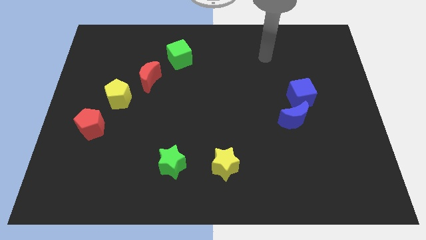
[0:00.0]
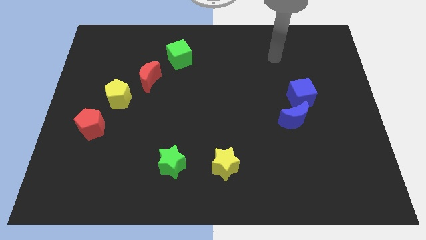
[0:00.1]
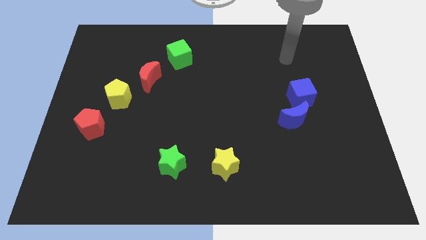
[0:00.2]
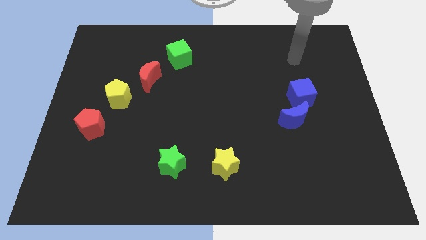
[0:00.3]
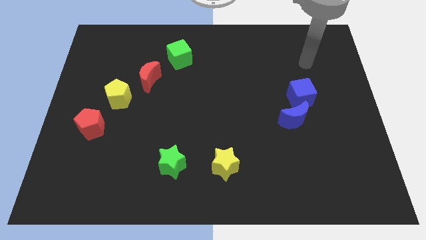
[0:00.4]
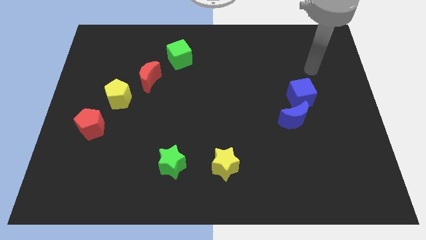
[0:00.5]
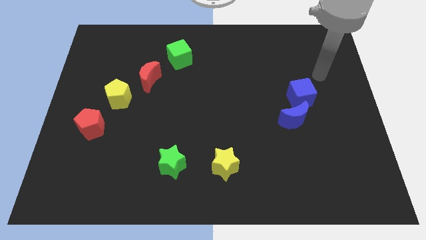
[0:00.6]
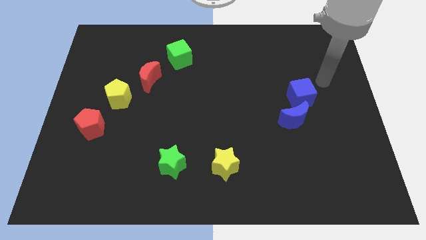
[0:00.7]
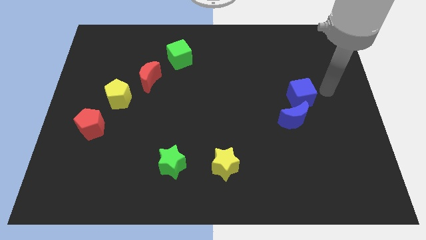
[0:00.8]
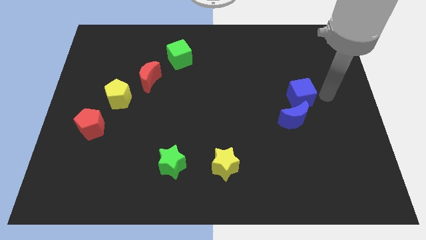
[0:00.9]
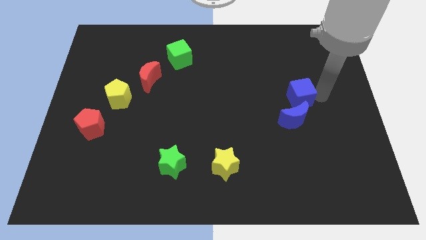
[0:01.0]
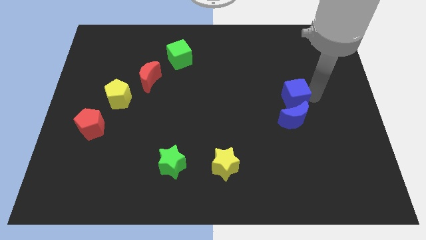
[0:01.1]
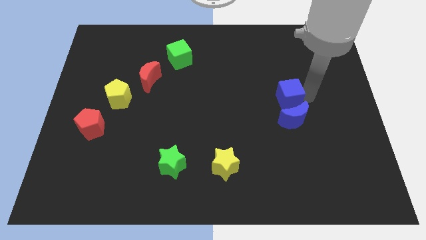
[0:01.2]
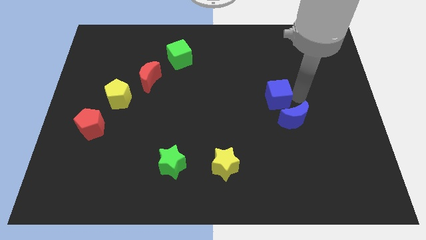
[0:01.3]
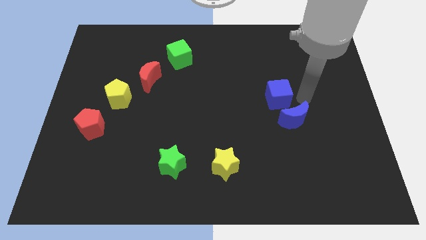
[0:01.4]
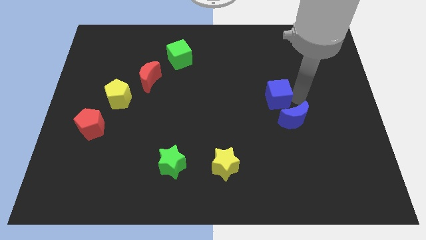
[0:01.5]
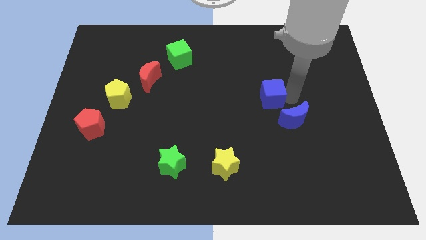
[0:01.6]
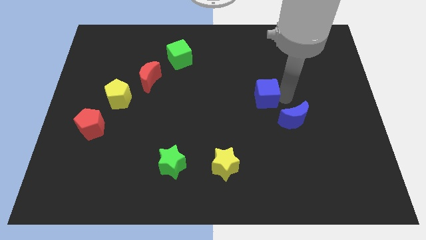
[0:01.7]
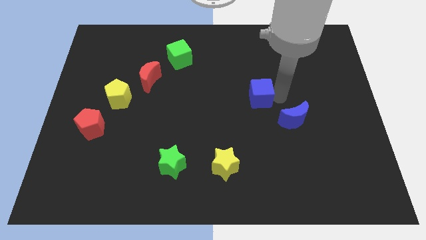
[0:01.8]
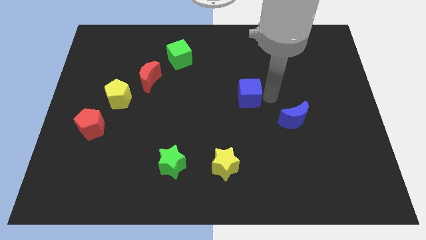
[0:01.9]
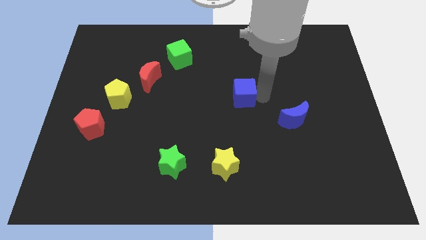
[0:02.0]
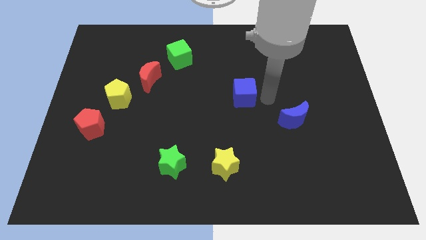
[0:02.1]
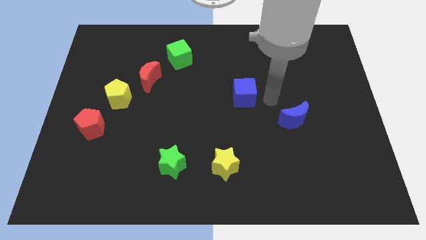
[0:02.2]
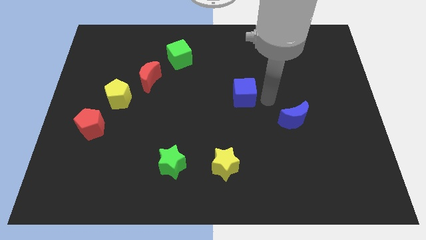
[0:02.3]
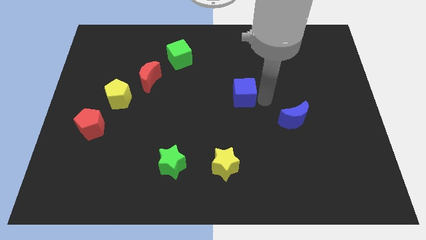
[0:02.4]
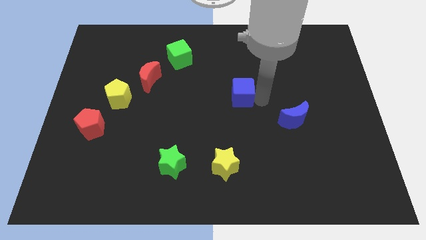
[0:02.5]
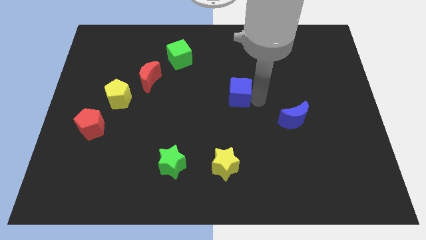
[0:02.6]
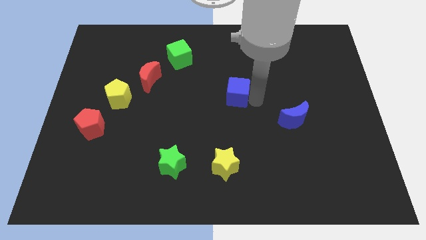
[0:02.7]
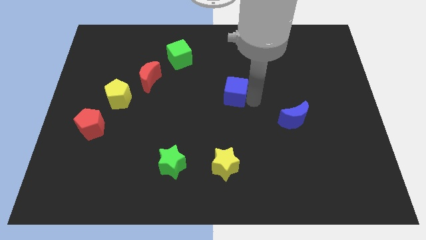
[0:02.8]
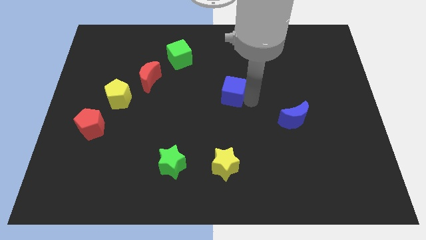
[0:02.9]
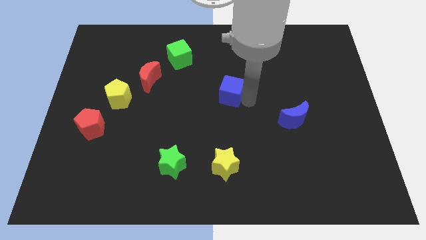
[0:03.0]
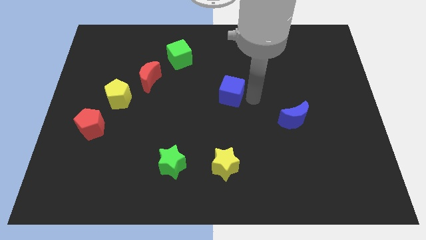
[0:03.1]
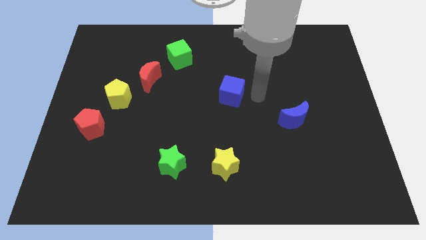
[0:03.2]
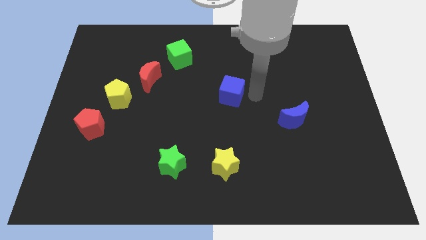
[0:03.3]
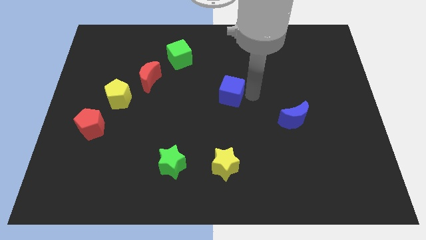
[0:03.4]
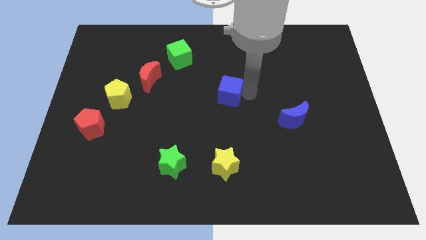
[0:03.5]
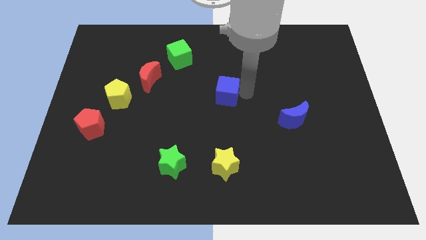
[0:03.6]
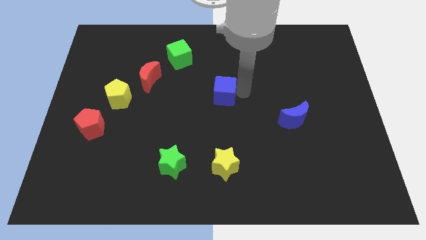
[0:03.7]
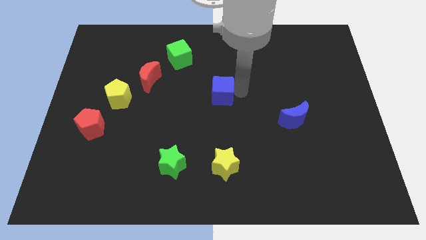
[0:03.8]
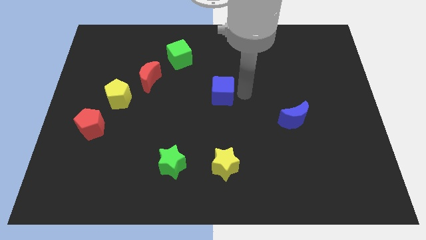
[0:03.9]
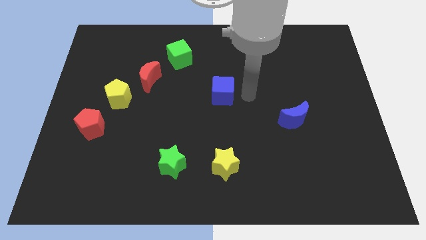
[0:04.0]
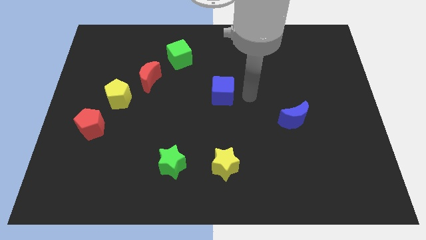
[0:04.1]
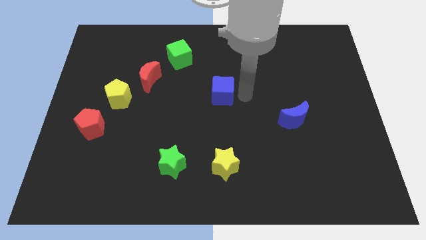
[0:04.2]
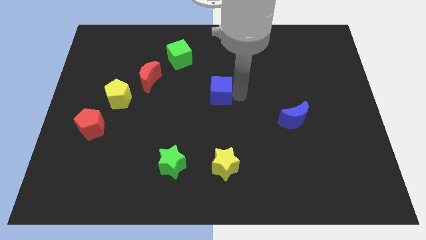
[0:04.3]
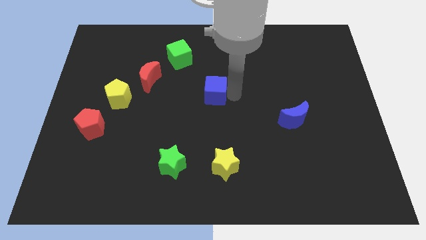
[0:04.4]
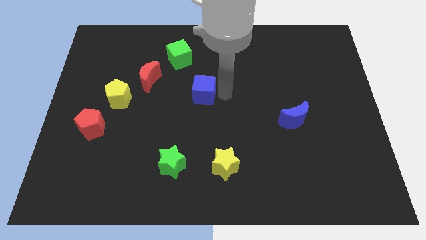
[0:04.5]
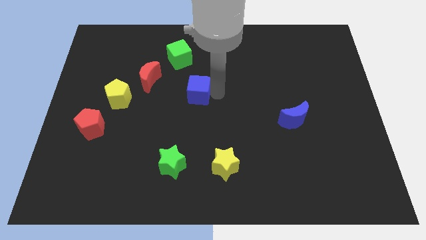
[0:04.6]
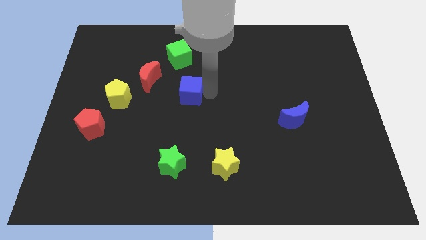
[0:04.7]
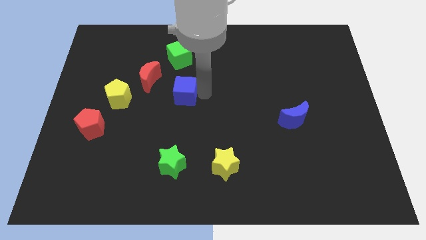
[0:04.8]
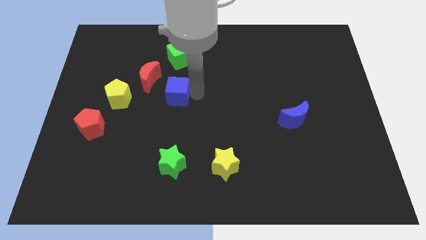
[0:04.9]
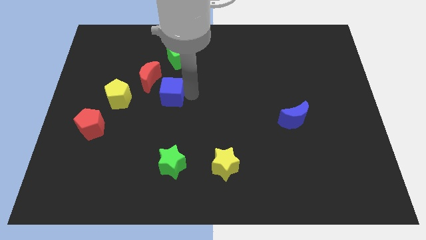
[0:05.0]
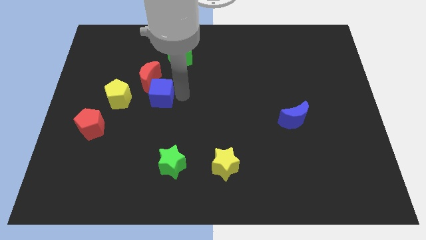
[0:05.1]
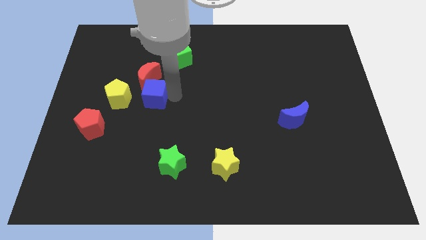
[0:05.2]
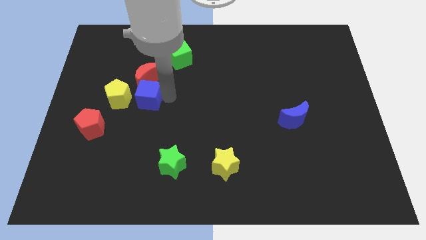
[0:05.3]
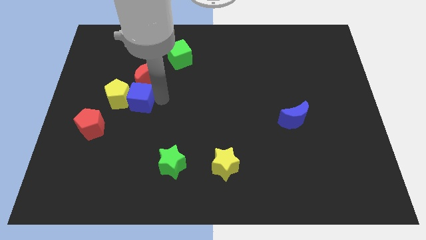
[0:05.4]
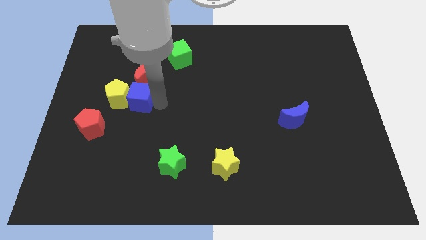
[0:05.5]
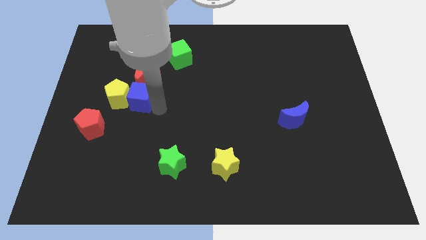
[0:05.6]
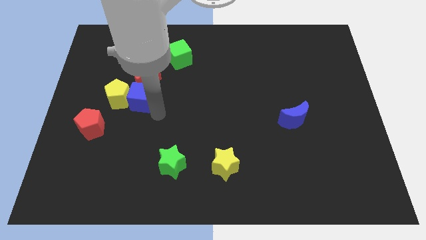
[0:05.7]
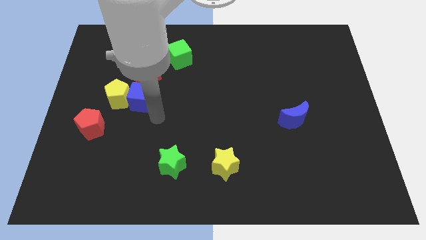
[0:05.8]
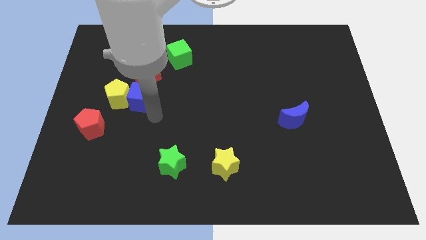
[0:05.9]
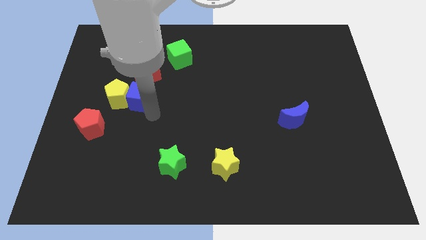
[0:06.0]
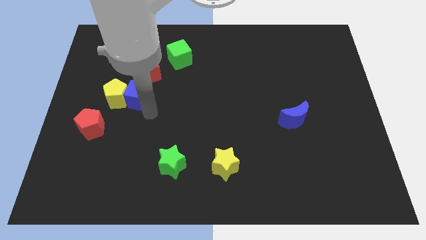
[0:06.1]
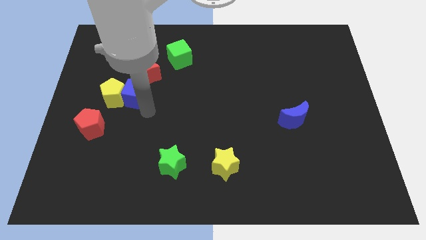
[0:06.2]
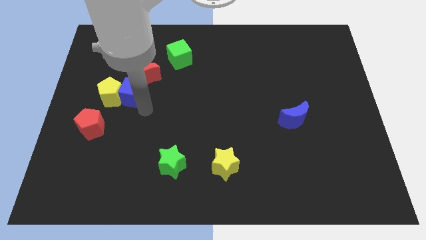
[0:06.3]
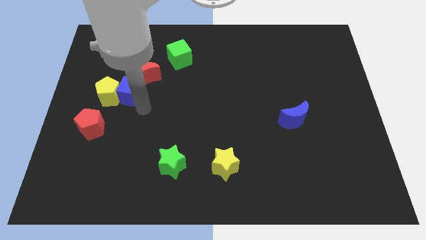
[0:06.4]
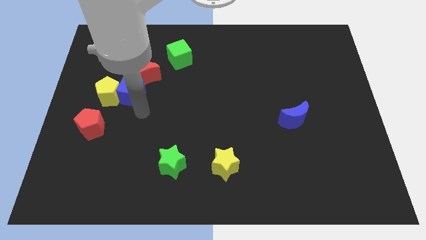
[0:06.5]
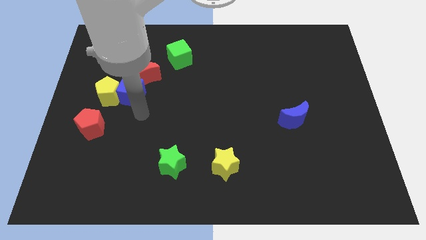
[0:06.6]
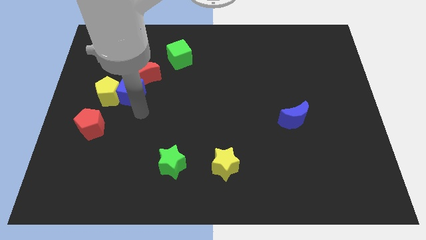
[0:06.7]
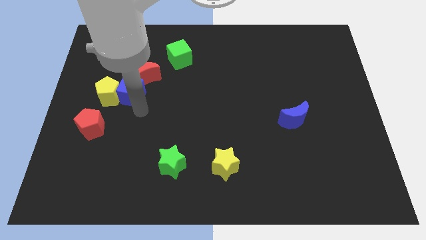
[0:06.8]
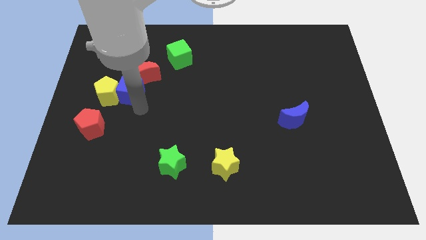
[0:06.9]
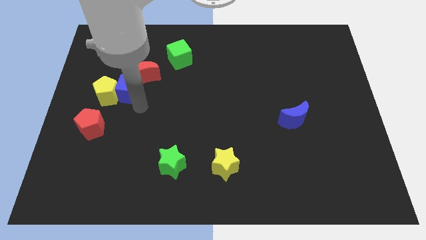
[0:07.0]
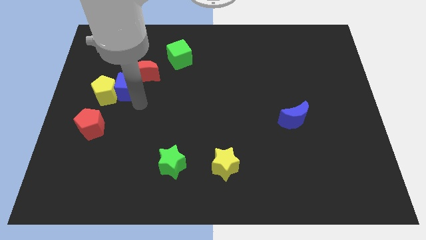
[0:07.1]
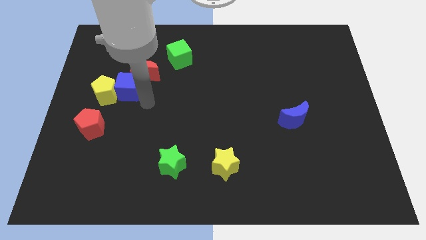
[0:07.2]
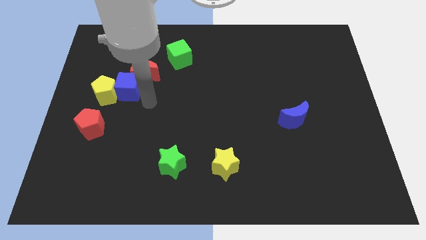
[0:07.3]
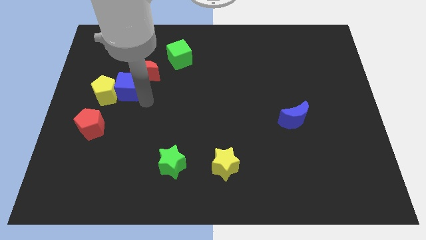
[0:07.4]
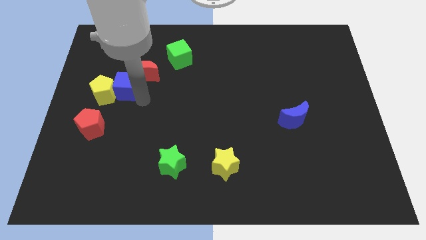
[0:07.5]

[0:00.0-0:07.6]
move the blue cube to the left of the red moon

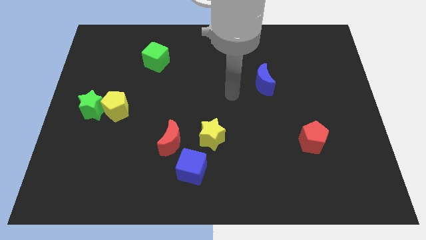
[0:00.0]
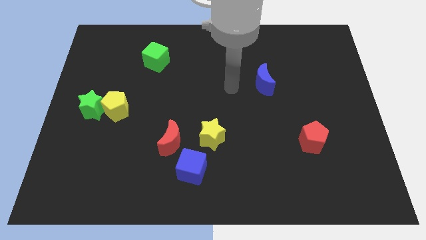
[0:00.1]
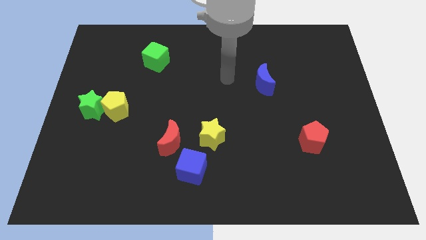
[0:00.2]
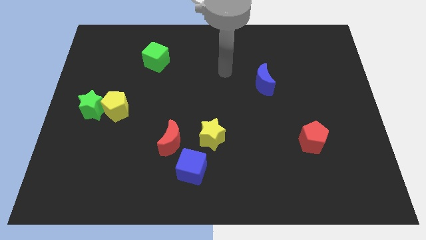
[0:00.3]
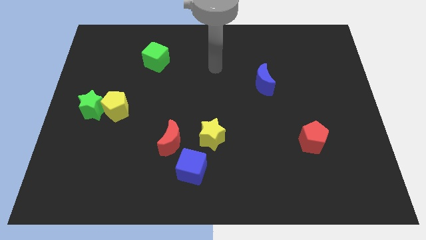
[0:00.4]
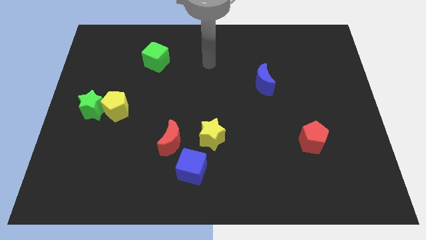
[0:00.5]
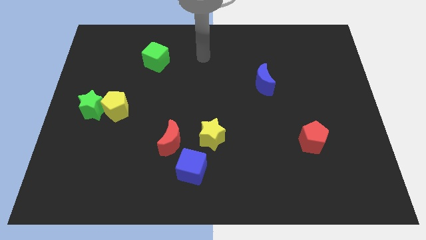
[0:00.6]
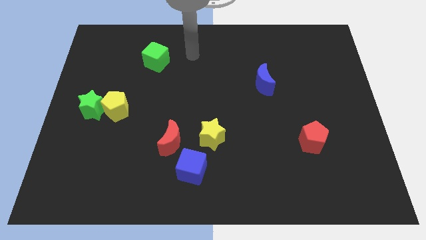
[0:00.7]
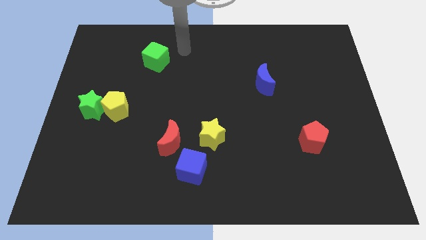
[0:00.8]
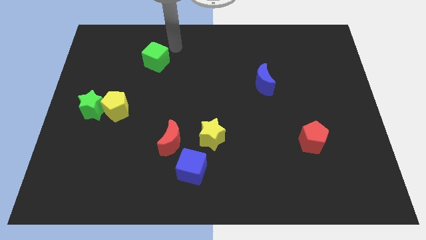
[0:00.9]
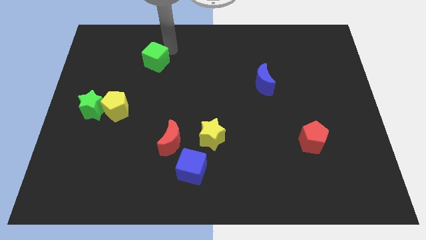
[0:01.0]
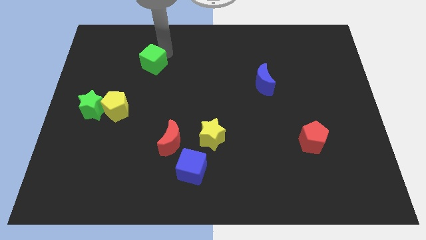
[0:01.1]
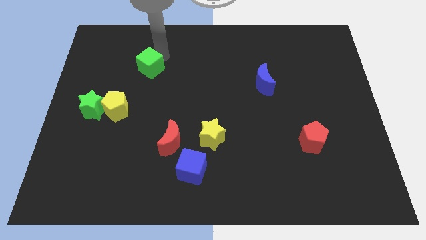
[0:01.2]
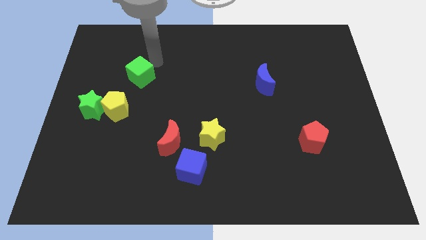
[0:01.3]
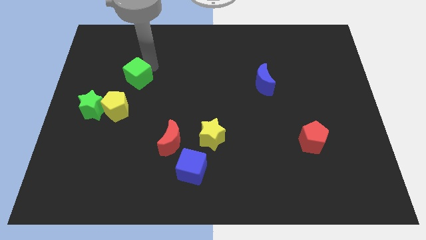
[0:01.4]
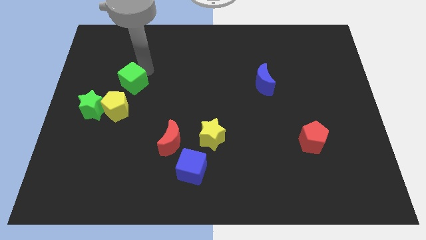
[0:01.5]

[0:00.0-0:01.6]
put the green cube to the top right side of the green star
